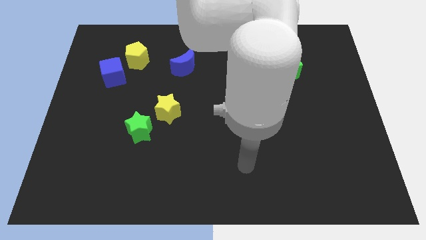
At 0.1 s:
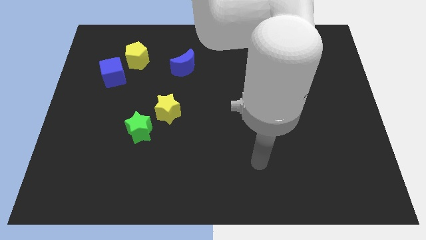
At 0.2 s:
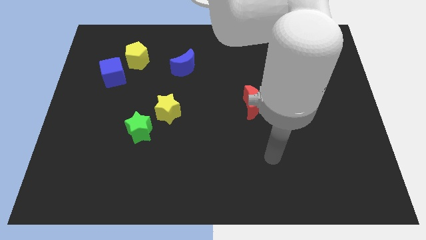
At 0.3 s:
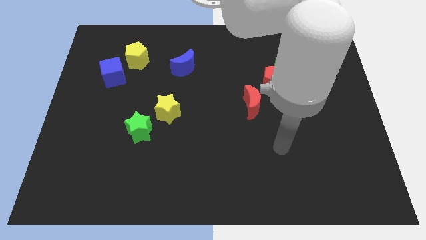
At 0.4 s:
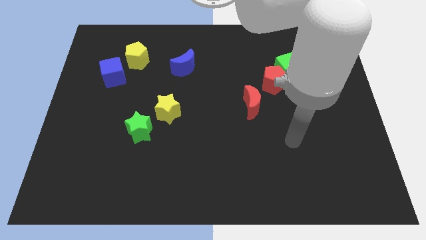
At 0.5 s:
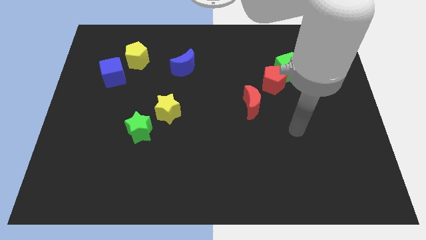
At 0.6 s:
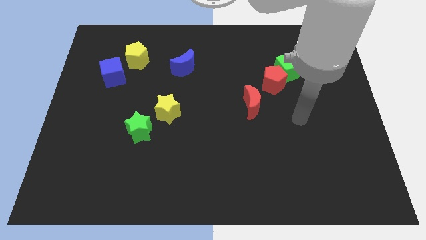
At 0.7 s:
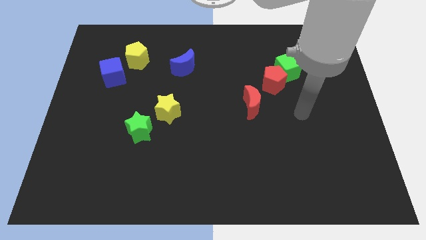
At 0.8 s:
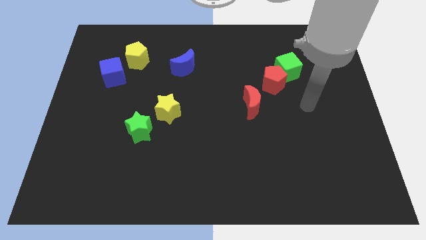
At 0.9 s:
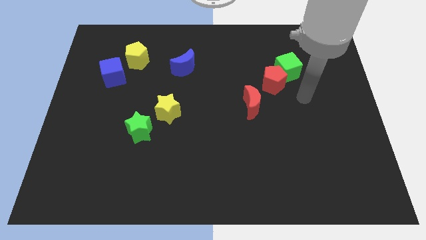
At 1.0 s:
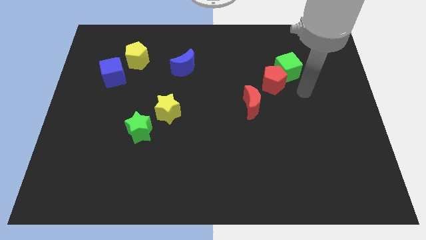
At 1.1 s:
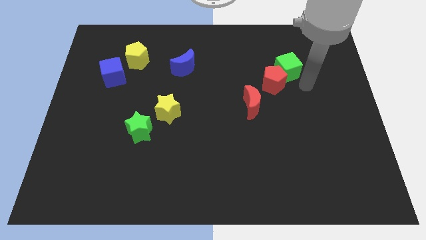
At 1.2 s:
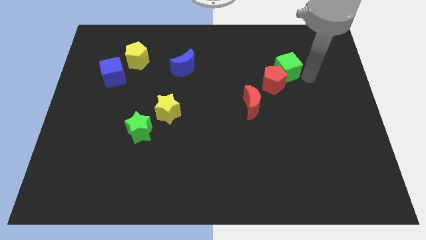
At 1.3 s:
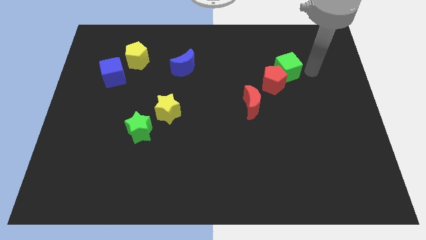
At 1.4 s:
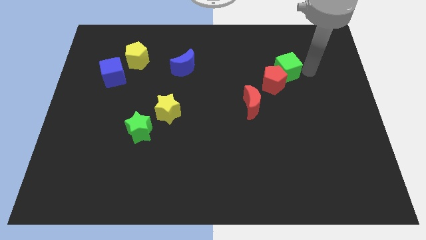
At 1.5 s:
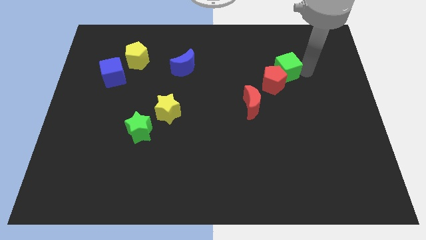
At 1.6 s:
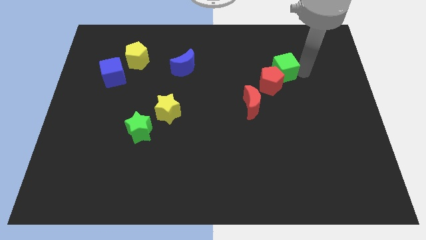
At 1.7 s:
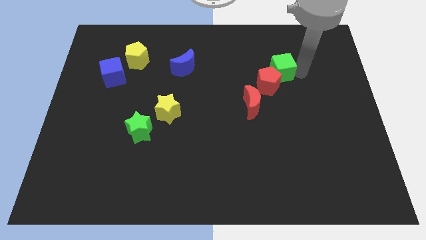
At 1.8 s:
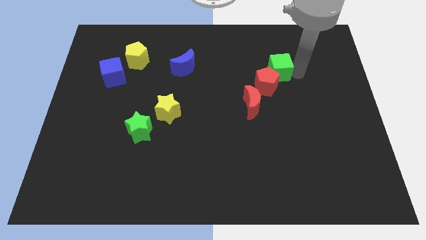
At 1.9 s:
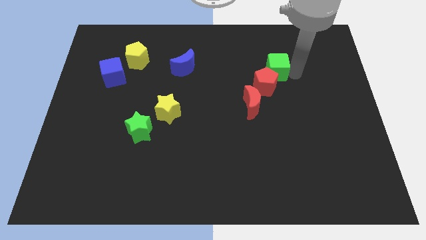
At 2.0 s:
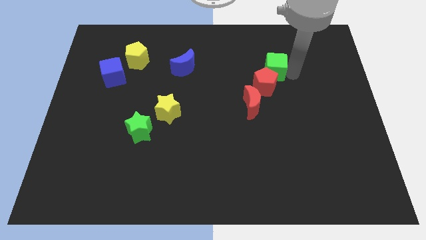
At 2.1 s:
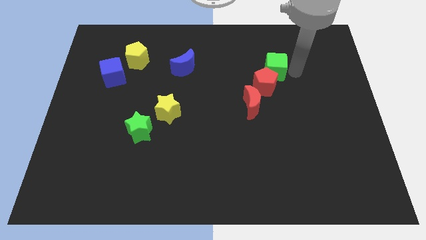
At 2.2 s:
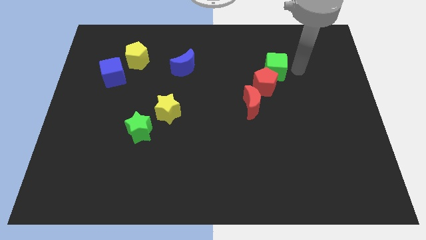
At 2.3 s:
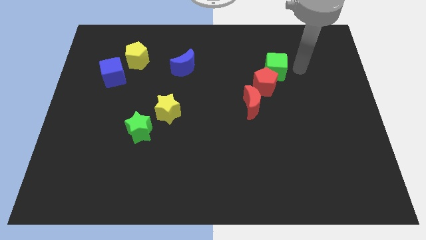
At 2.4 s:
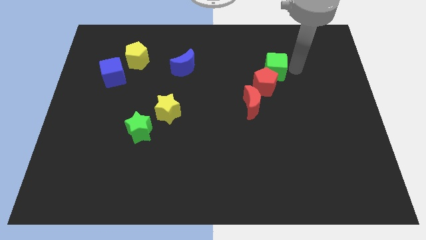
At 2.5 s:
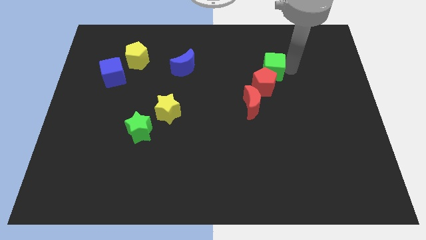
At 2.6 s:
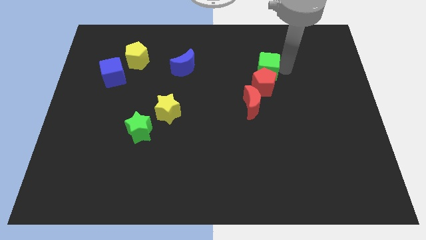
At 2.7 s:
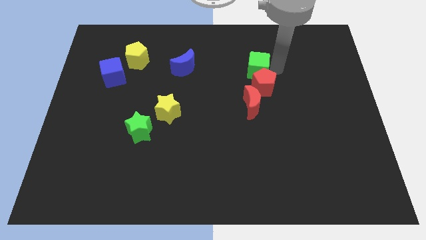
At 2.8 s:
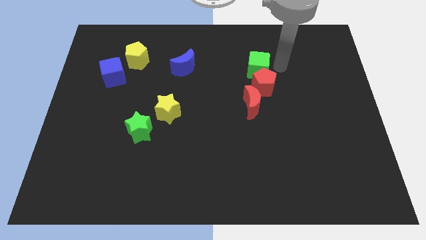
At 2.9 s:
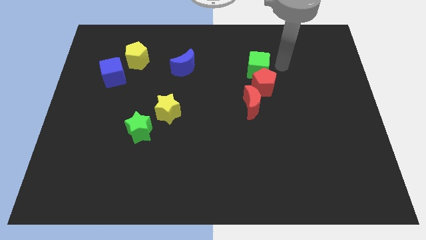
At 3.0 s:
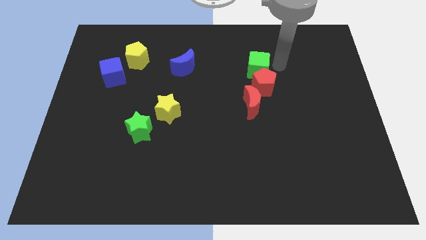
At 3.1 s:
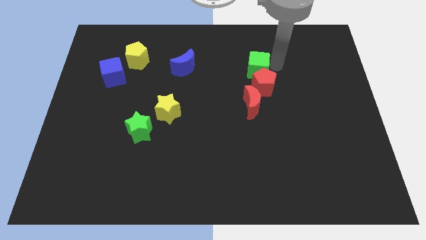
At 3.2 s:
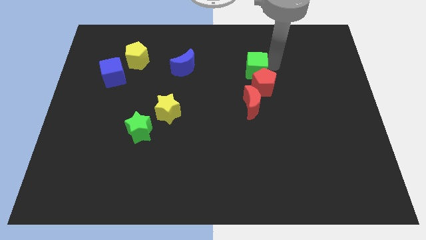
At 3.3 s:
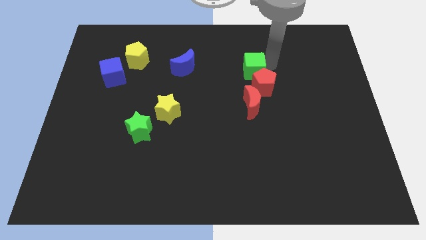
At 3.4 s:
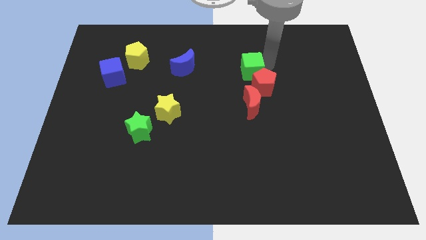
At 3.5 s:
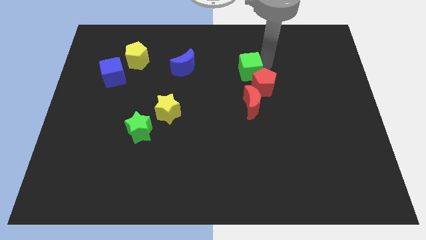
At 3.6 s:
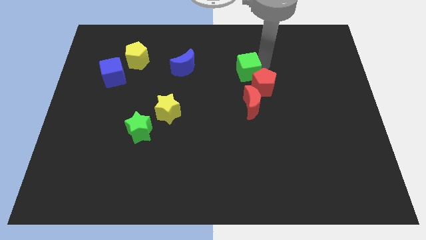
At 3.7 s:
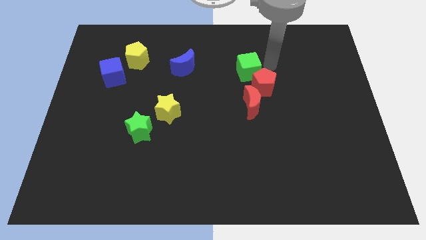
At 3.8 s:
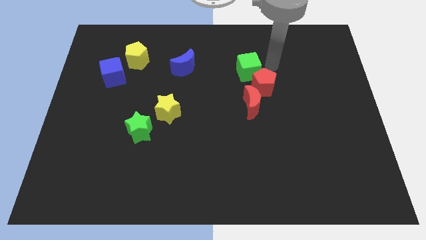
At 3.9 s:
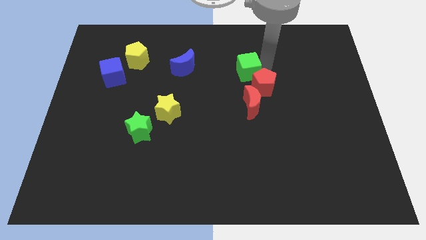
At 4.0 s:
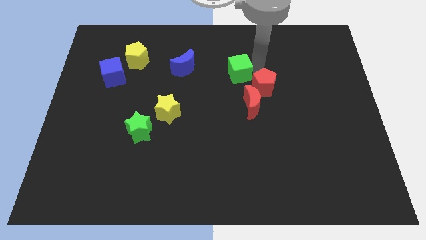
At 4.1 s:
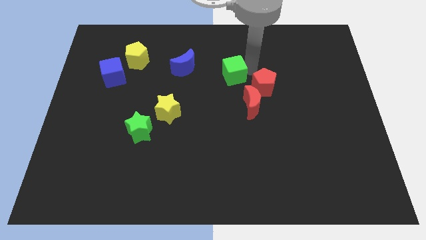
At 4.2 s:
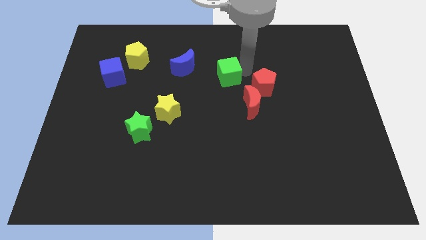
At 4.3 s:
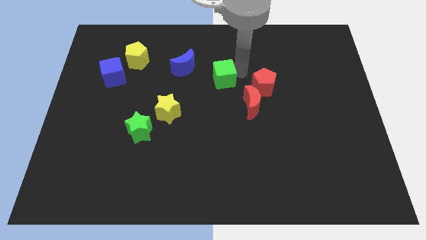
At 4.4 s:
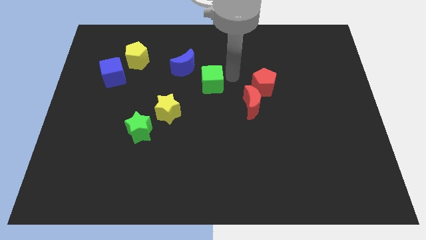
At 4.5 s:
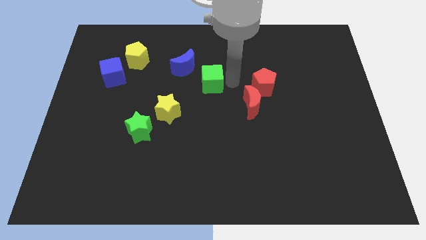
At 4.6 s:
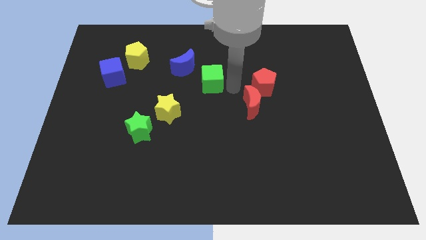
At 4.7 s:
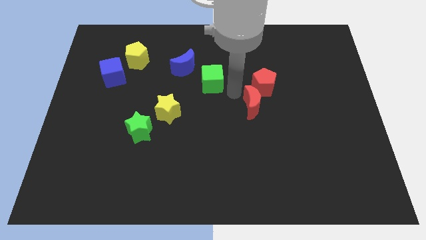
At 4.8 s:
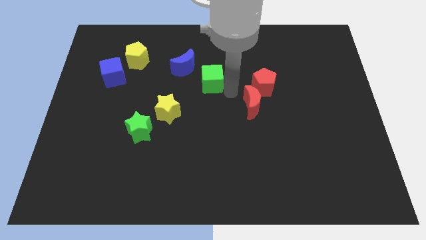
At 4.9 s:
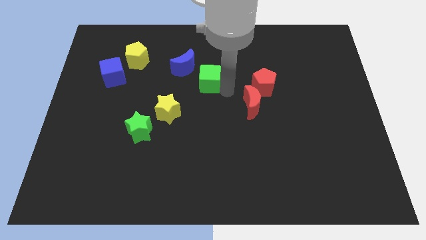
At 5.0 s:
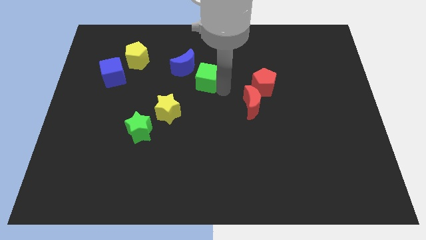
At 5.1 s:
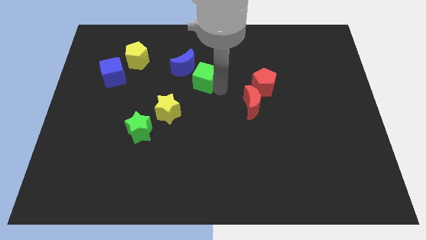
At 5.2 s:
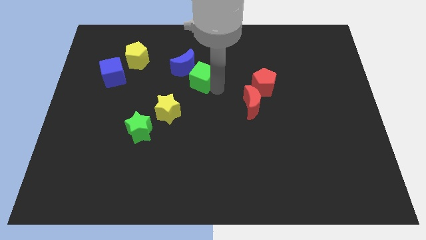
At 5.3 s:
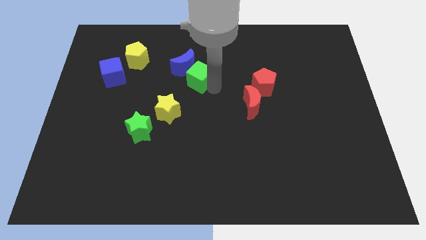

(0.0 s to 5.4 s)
move the green cube next to the blue moon

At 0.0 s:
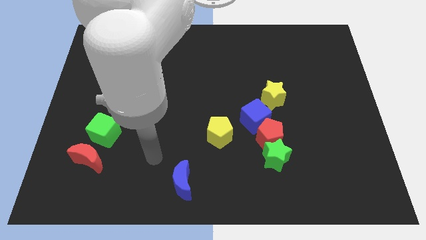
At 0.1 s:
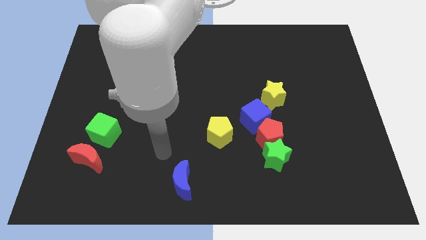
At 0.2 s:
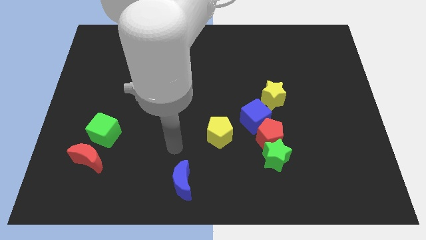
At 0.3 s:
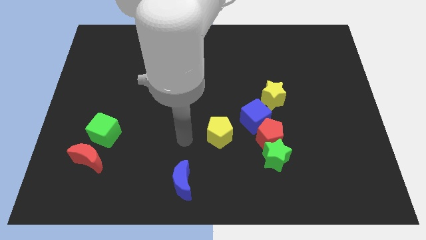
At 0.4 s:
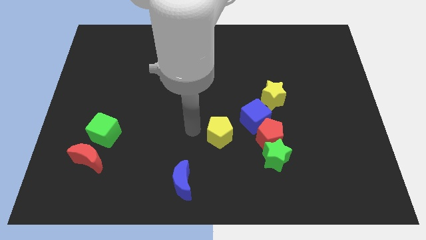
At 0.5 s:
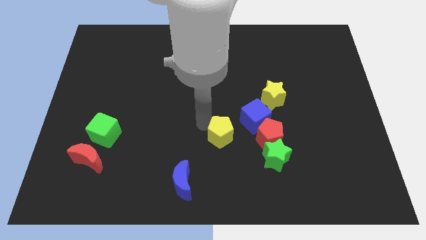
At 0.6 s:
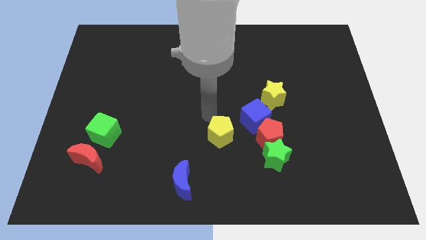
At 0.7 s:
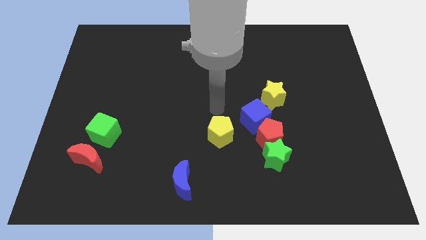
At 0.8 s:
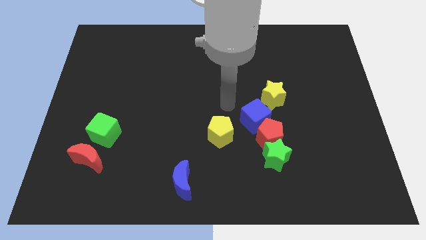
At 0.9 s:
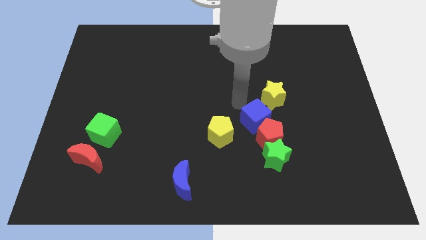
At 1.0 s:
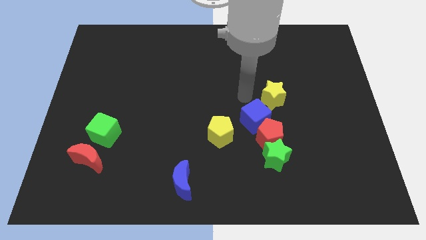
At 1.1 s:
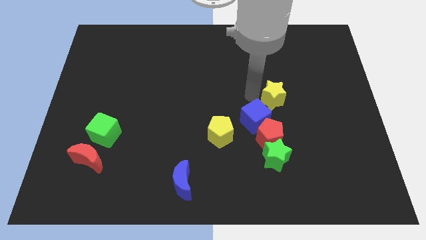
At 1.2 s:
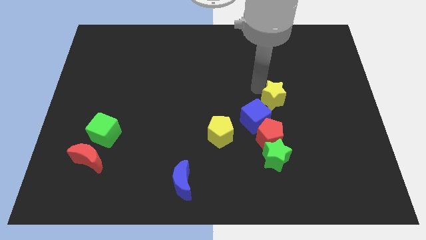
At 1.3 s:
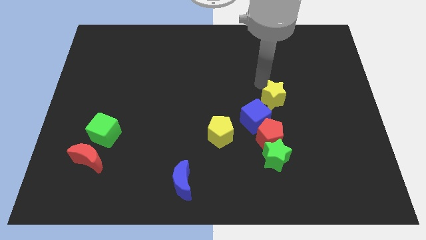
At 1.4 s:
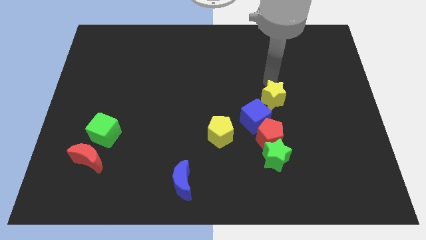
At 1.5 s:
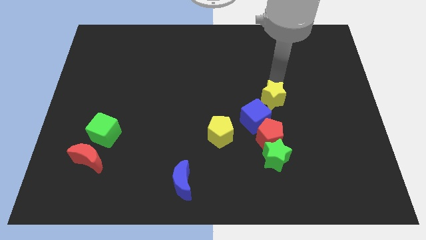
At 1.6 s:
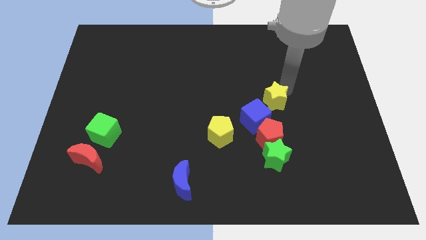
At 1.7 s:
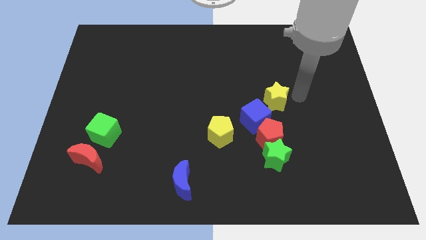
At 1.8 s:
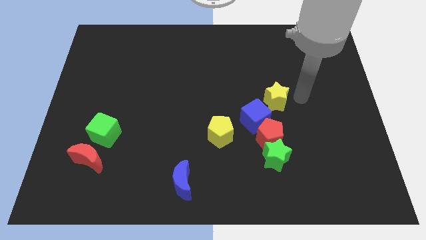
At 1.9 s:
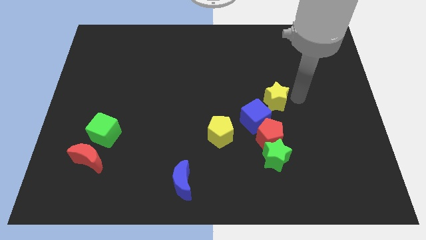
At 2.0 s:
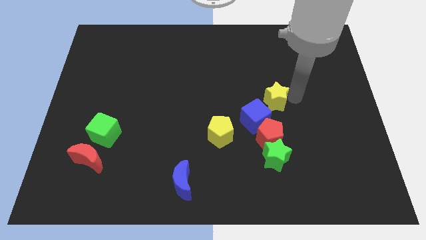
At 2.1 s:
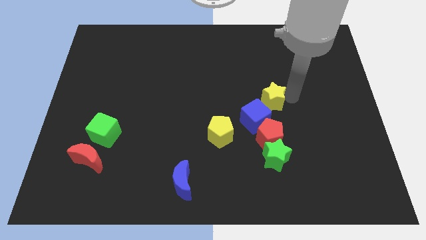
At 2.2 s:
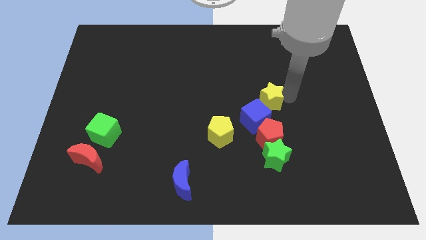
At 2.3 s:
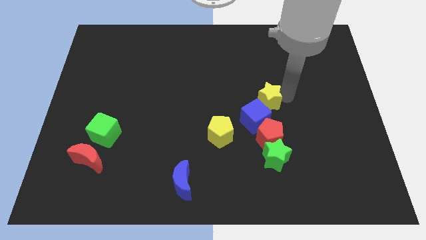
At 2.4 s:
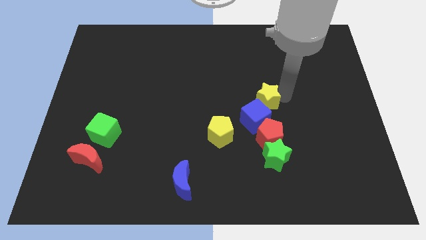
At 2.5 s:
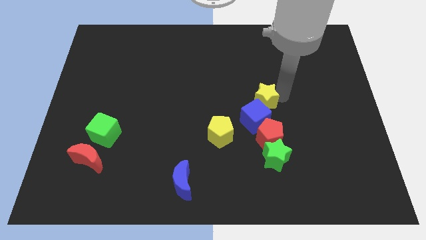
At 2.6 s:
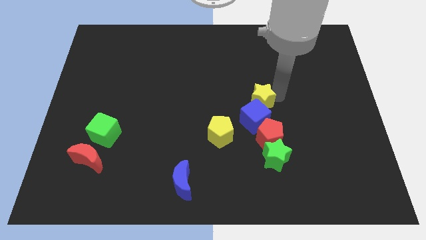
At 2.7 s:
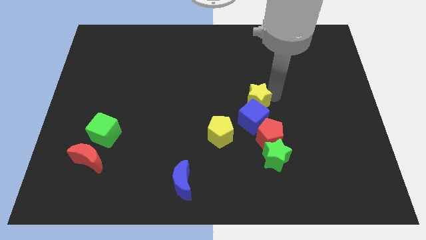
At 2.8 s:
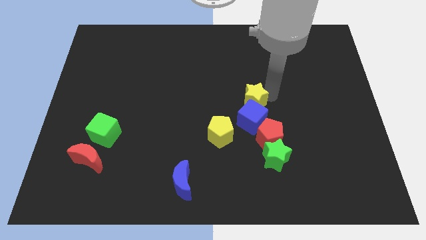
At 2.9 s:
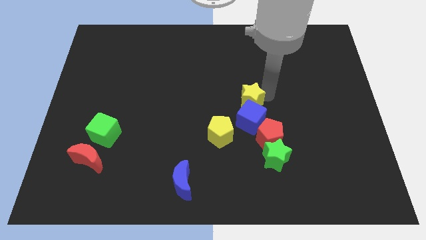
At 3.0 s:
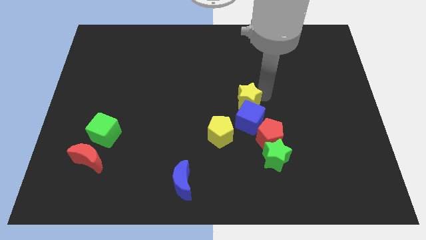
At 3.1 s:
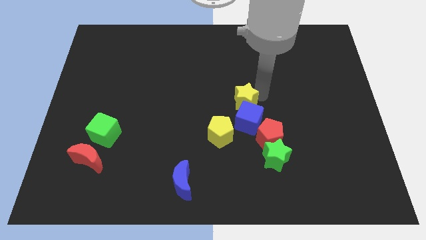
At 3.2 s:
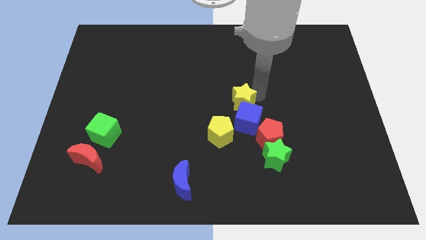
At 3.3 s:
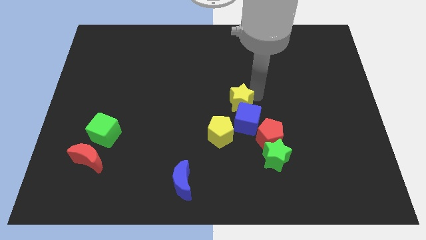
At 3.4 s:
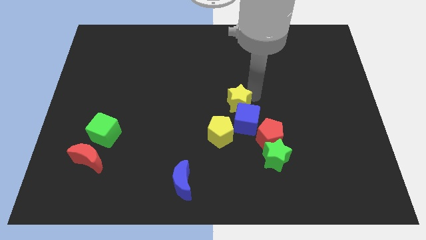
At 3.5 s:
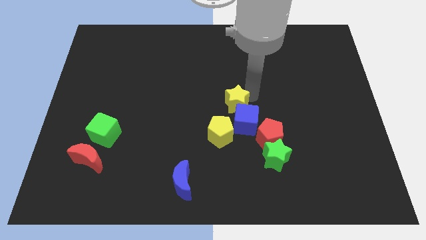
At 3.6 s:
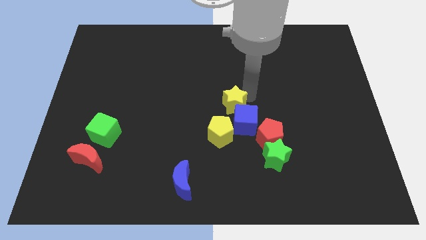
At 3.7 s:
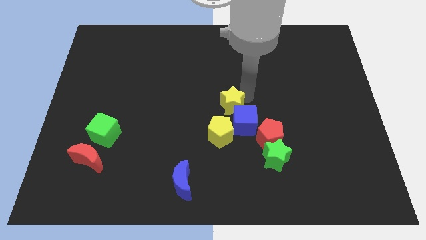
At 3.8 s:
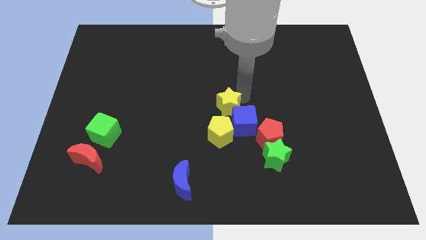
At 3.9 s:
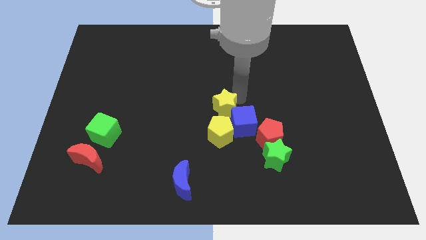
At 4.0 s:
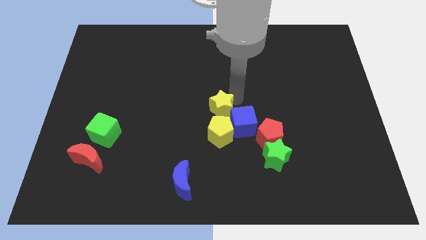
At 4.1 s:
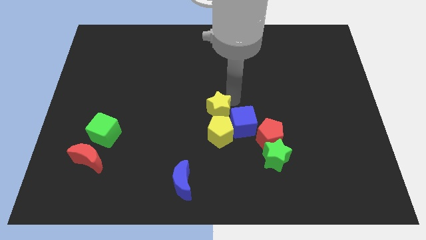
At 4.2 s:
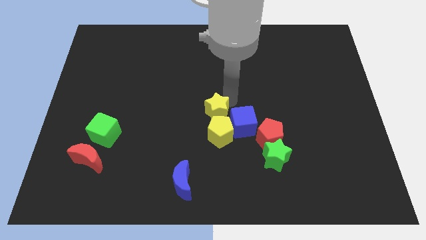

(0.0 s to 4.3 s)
put the yellow star next to the yellow pentagon
